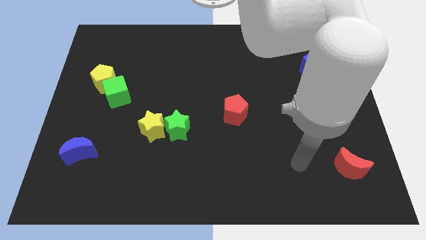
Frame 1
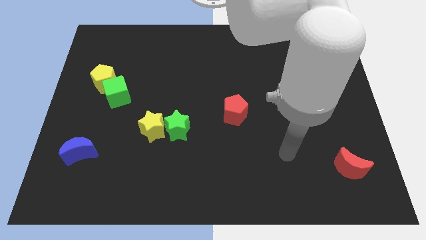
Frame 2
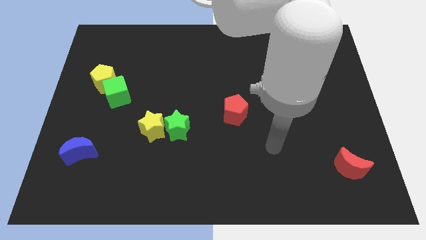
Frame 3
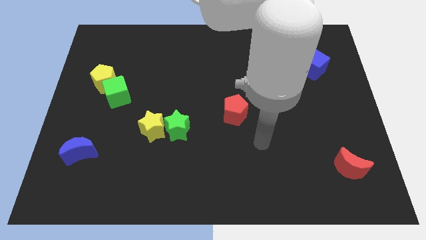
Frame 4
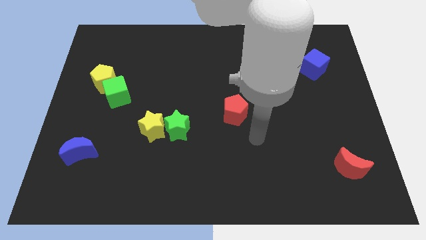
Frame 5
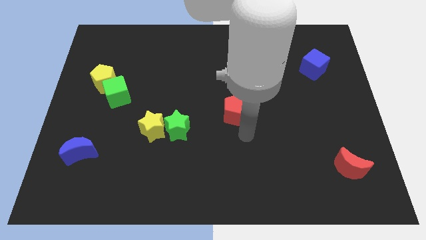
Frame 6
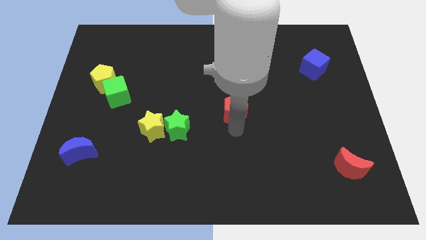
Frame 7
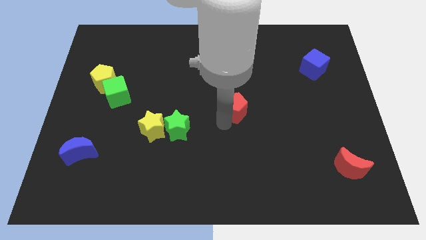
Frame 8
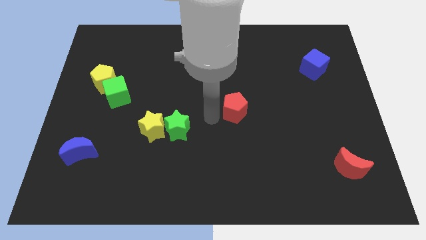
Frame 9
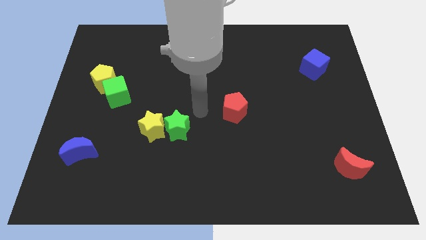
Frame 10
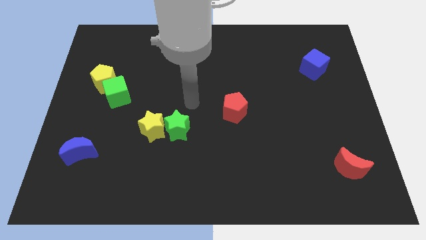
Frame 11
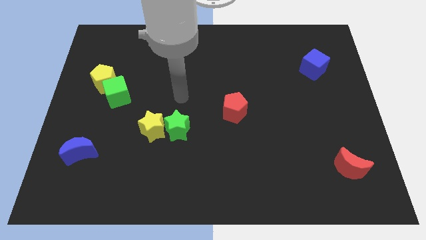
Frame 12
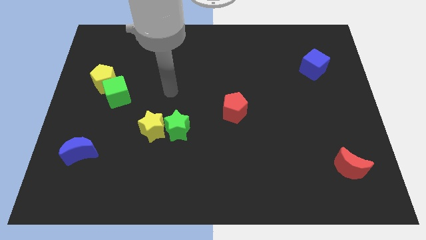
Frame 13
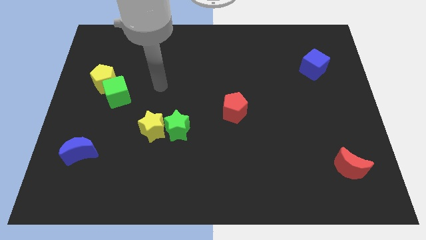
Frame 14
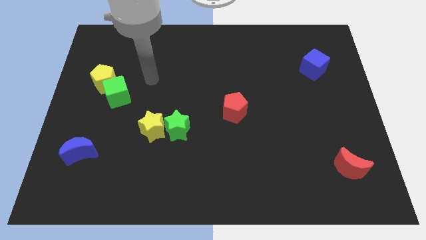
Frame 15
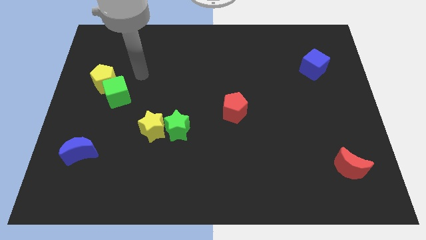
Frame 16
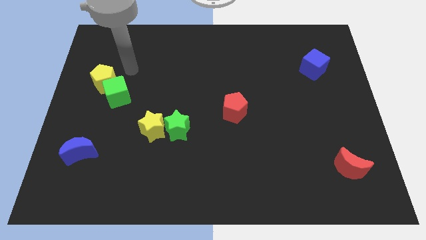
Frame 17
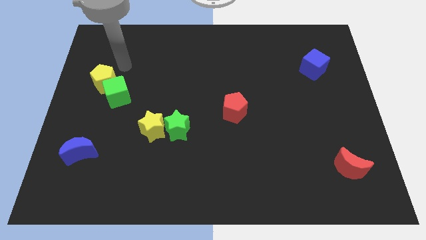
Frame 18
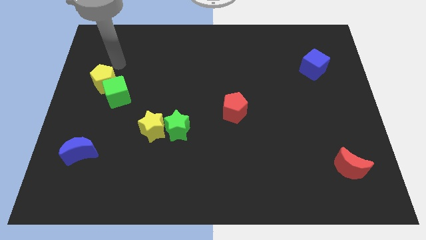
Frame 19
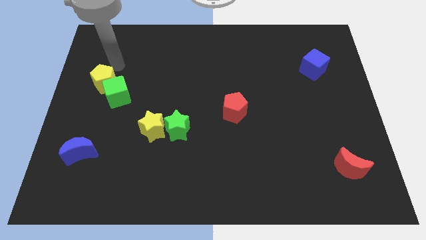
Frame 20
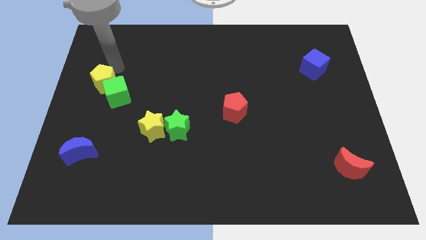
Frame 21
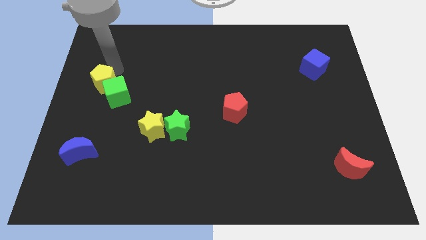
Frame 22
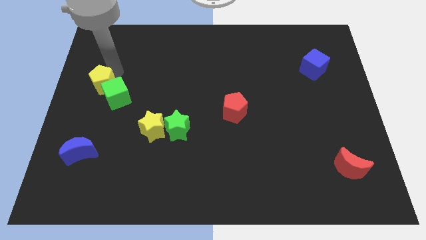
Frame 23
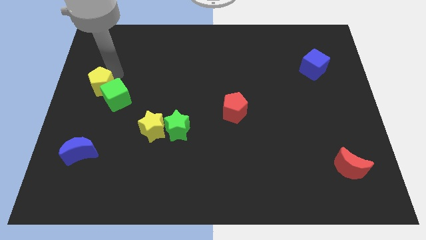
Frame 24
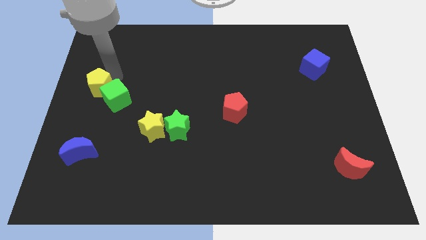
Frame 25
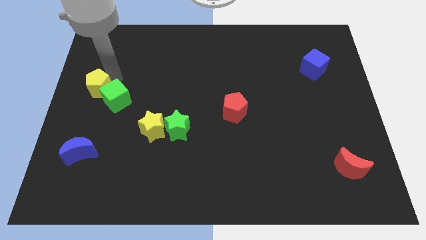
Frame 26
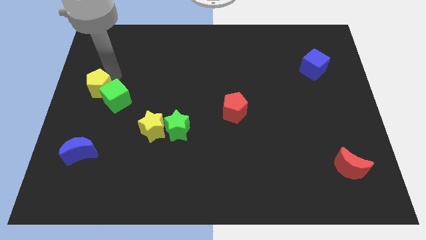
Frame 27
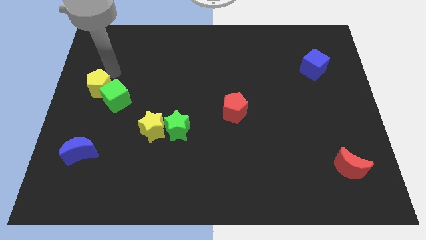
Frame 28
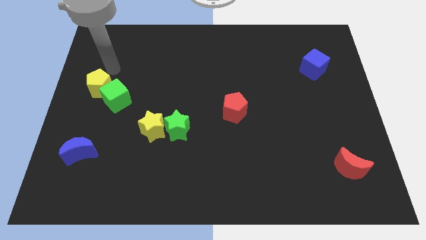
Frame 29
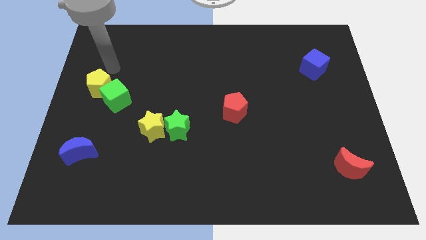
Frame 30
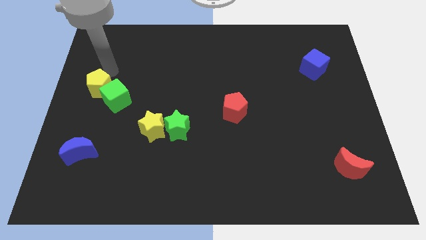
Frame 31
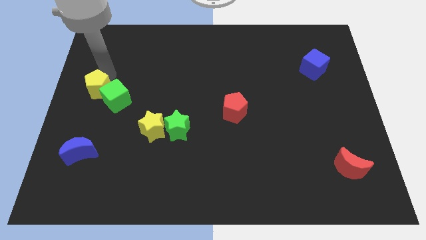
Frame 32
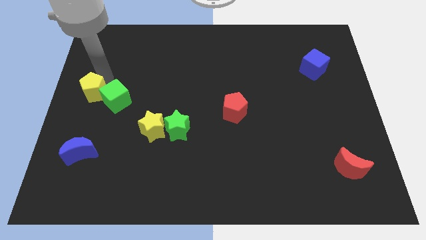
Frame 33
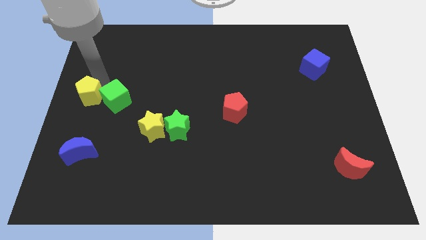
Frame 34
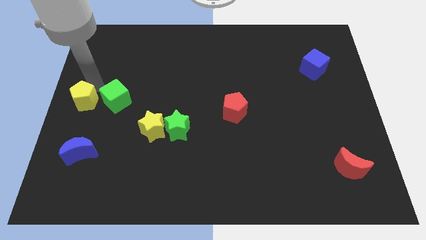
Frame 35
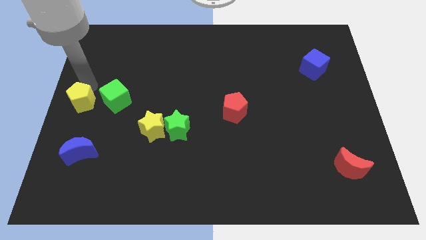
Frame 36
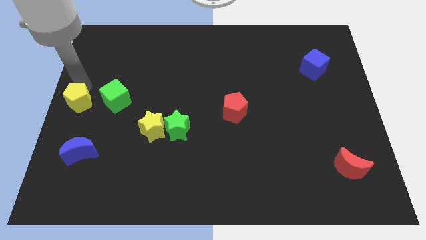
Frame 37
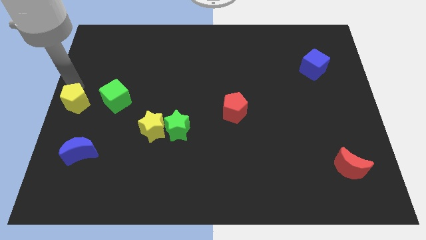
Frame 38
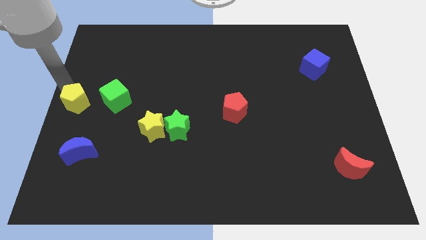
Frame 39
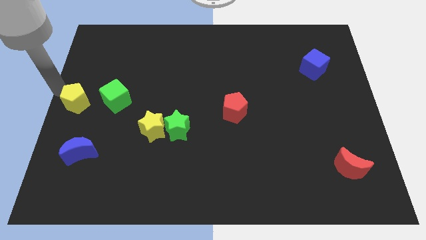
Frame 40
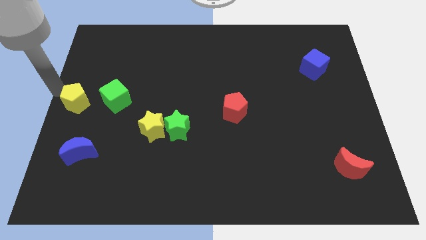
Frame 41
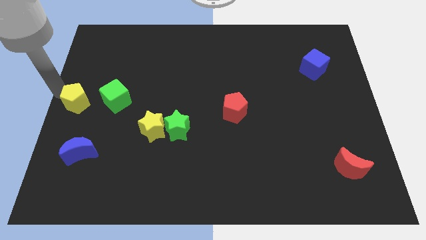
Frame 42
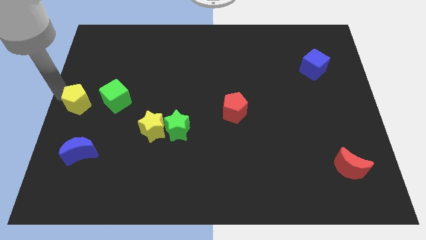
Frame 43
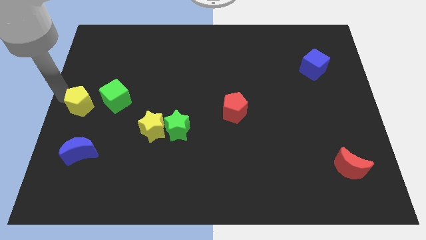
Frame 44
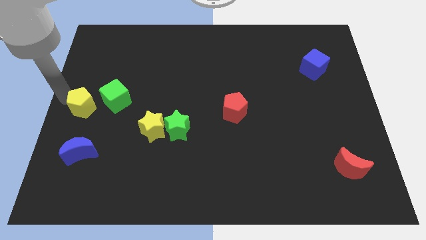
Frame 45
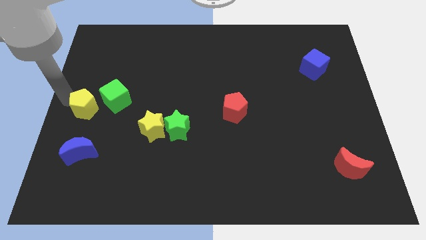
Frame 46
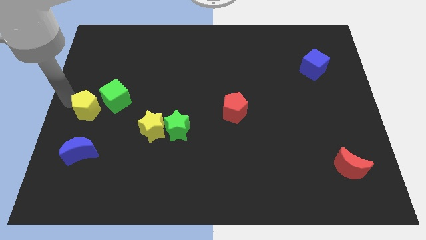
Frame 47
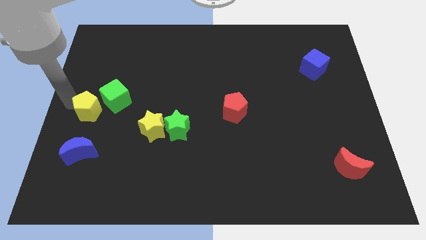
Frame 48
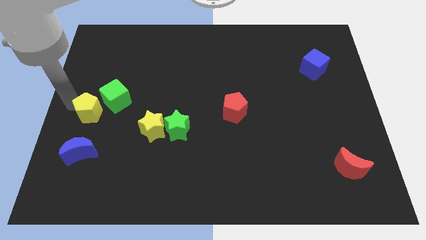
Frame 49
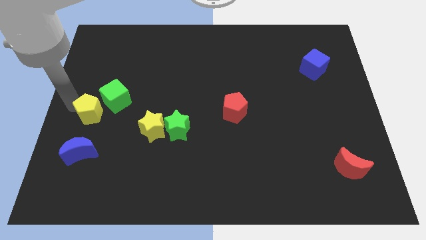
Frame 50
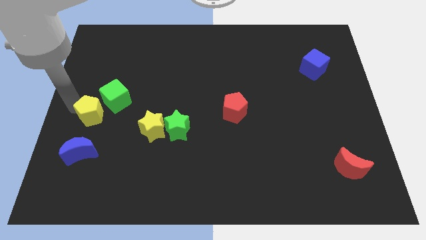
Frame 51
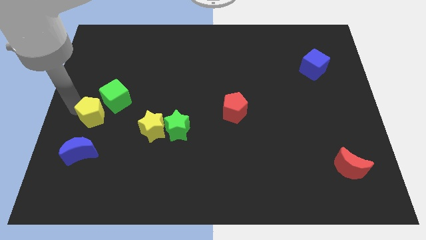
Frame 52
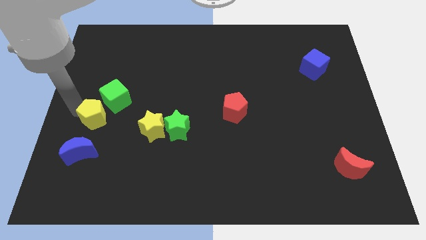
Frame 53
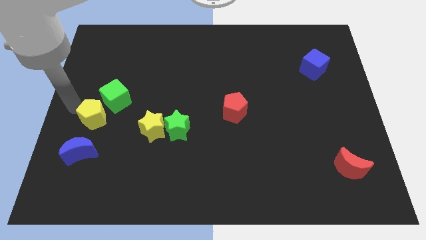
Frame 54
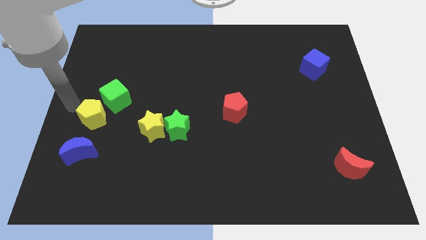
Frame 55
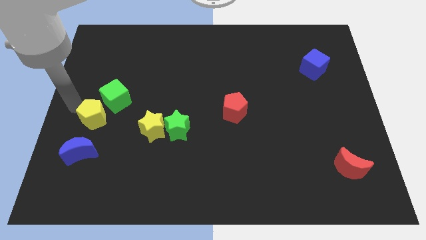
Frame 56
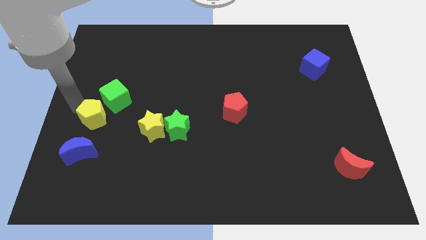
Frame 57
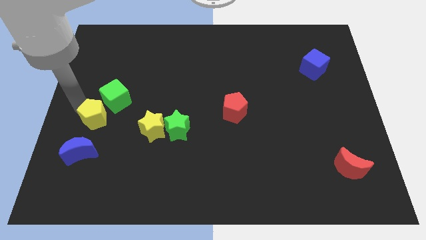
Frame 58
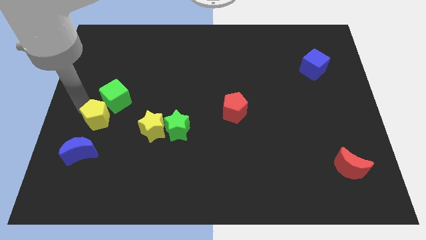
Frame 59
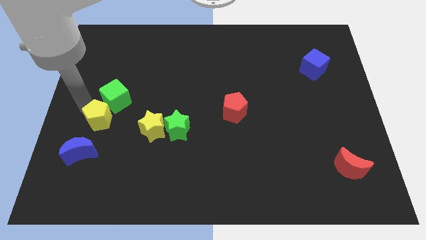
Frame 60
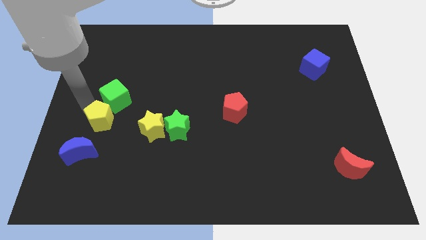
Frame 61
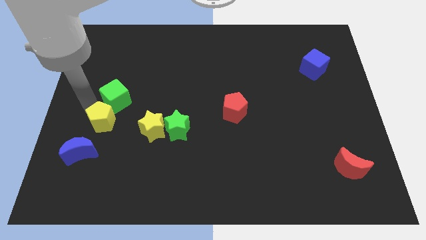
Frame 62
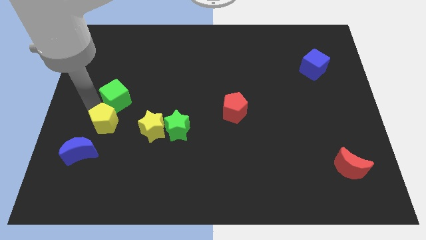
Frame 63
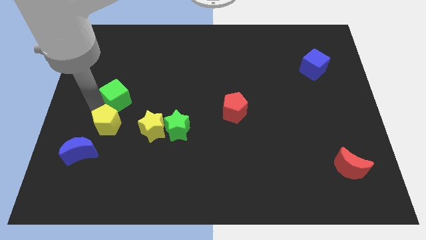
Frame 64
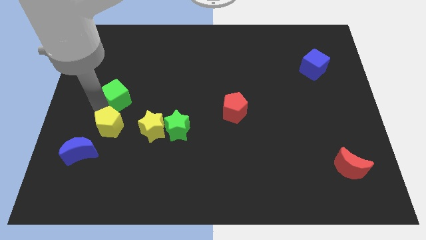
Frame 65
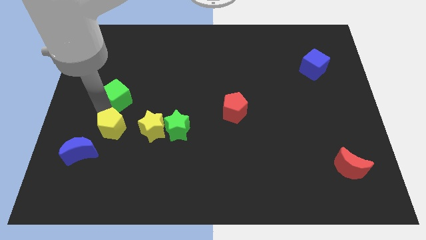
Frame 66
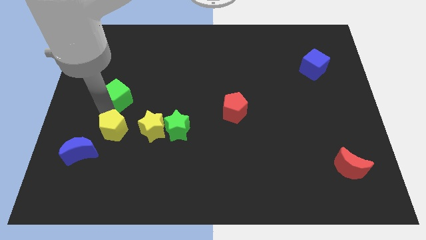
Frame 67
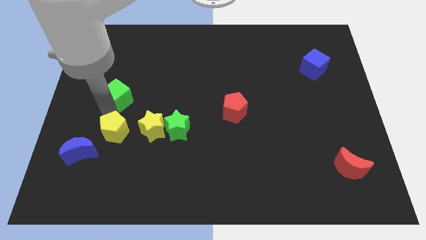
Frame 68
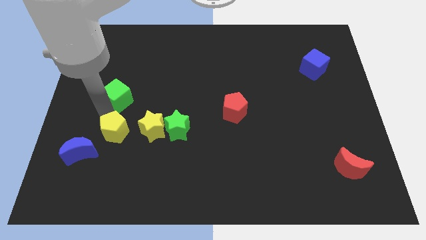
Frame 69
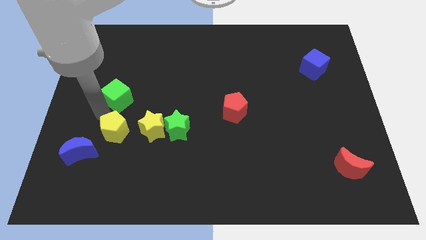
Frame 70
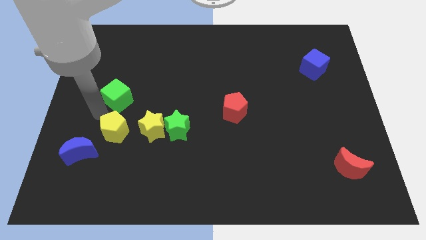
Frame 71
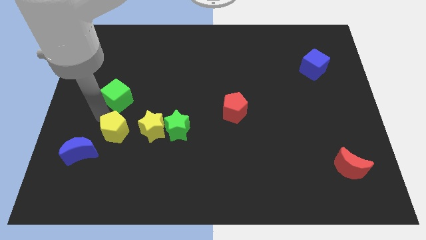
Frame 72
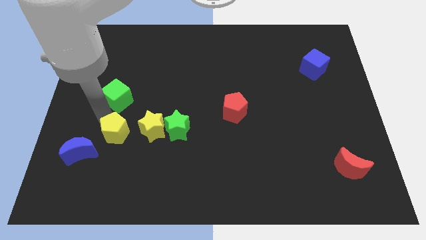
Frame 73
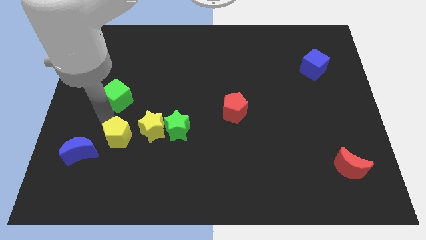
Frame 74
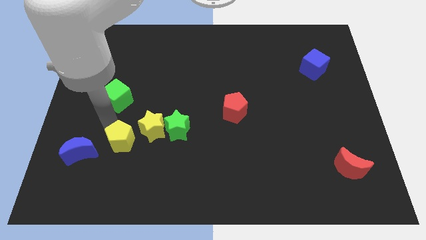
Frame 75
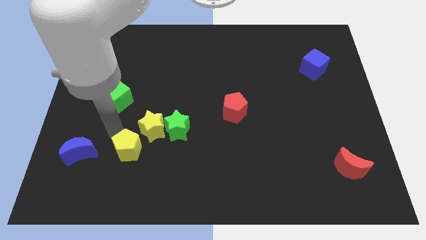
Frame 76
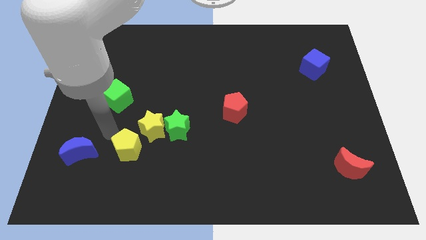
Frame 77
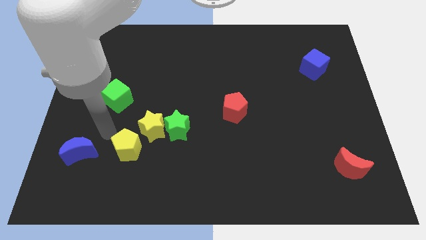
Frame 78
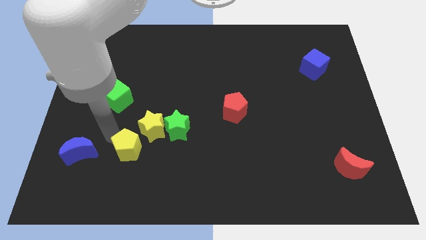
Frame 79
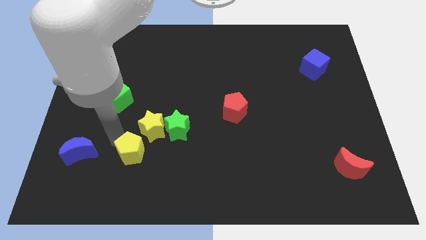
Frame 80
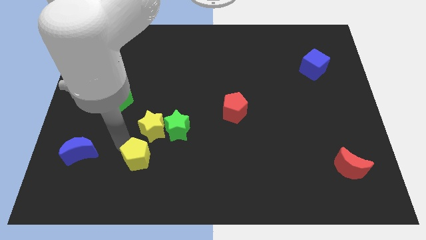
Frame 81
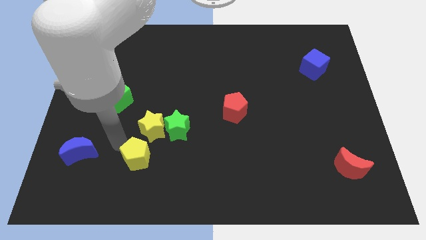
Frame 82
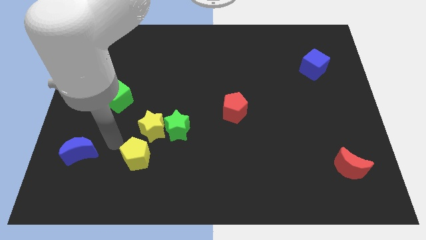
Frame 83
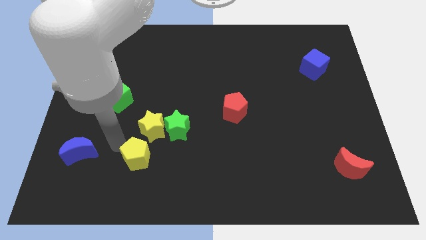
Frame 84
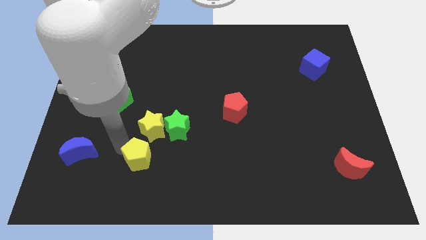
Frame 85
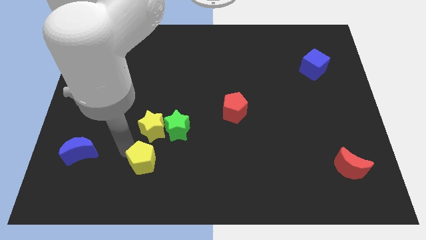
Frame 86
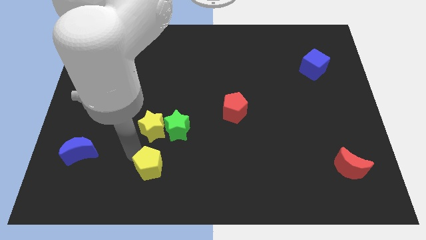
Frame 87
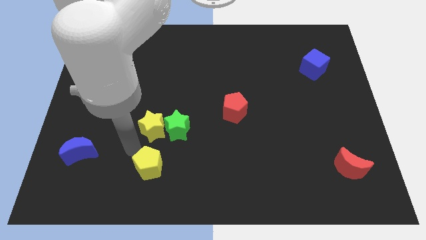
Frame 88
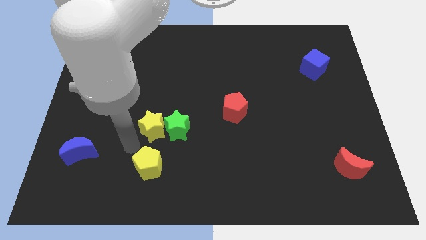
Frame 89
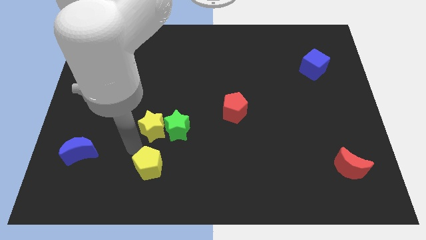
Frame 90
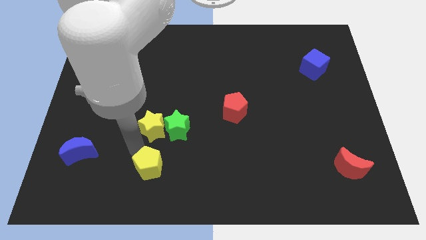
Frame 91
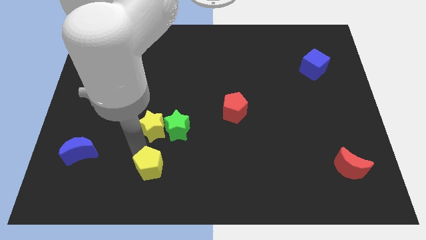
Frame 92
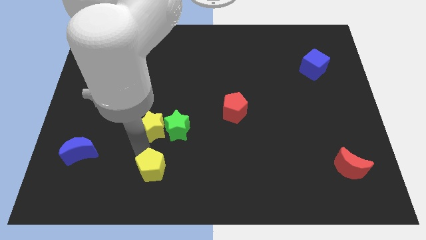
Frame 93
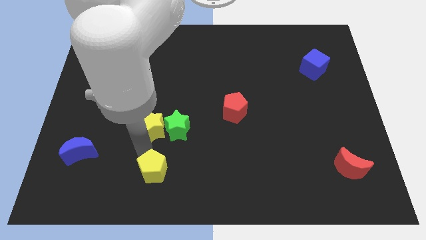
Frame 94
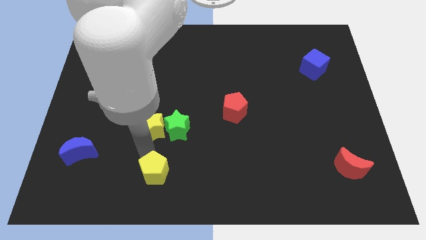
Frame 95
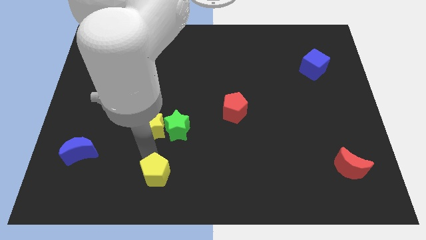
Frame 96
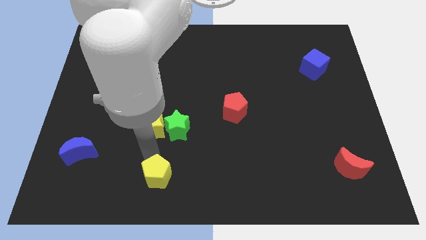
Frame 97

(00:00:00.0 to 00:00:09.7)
move the yellow pentagon to the bottom
